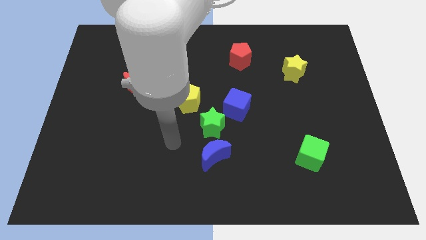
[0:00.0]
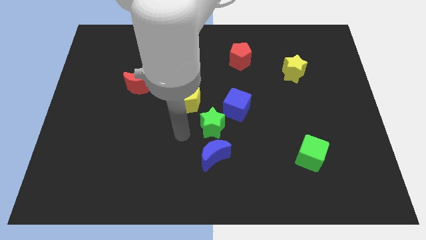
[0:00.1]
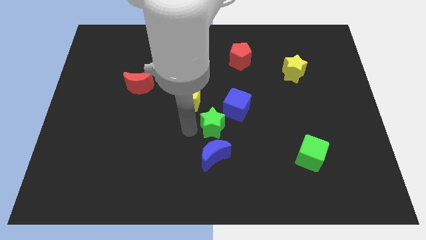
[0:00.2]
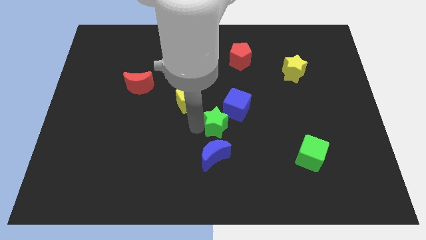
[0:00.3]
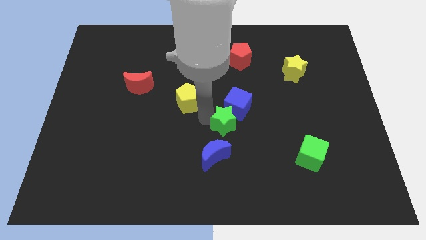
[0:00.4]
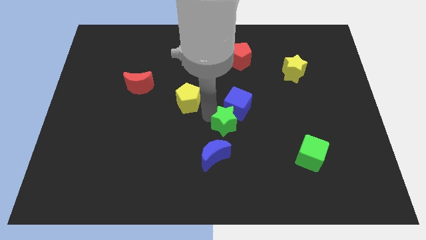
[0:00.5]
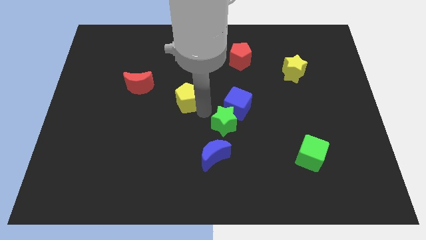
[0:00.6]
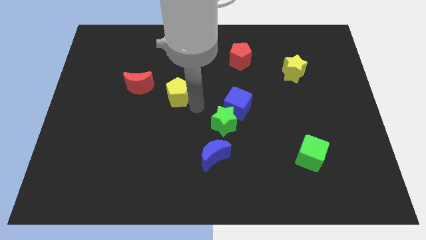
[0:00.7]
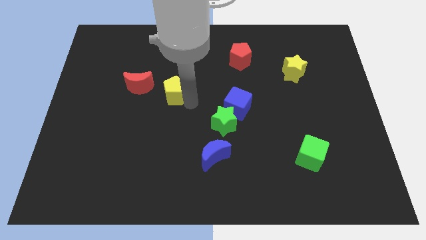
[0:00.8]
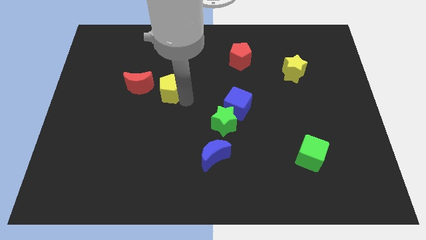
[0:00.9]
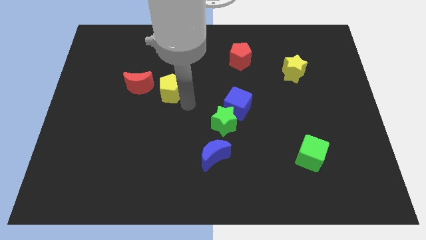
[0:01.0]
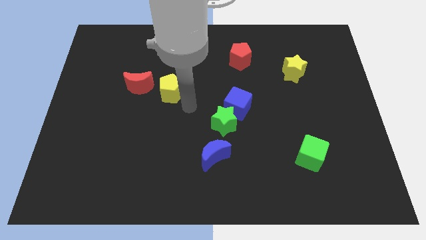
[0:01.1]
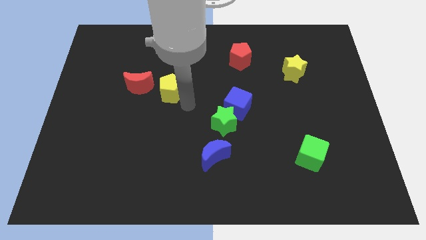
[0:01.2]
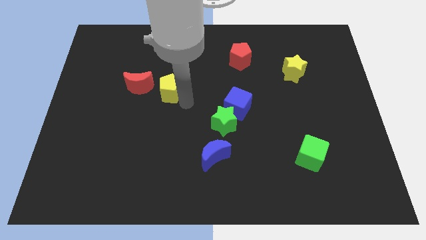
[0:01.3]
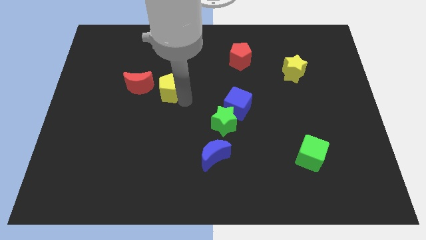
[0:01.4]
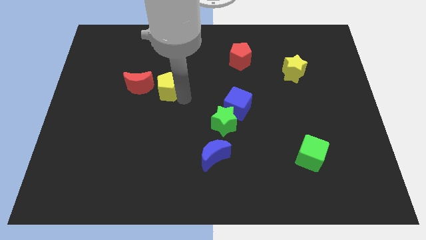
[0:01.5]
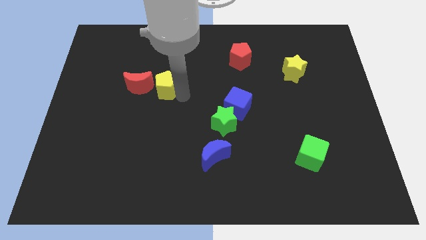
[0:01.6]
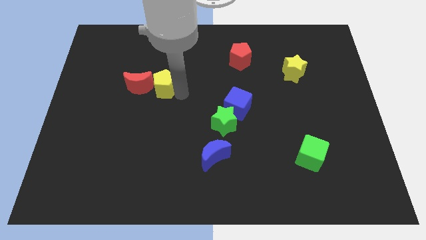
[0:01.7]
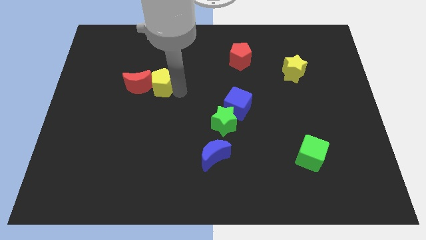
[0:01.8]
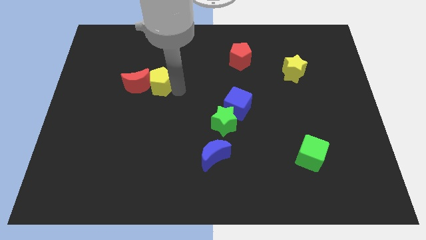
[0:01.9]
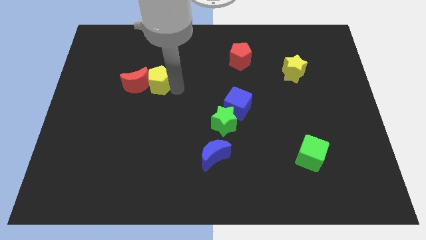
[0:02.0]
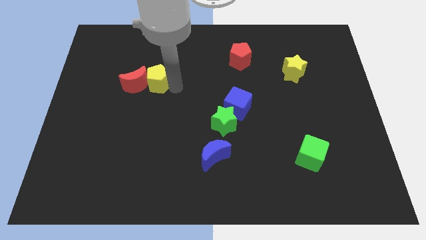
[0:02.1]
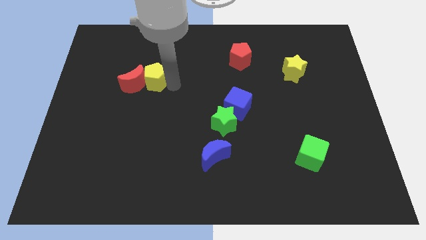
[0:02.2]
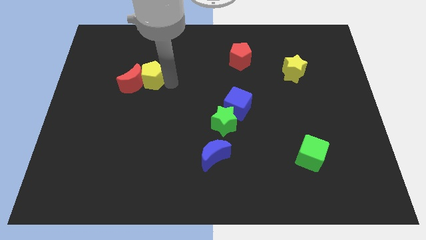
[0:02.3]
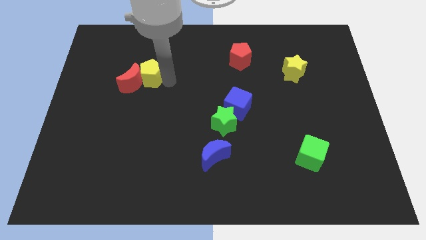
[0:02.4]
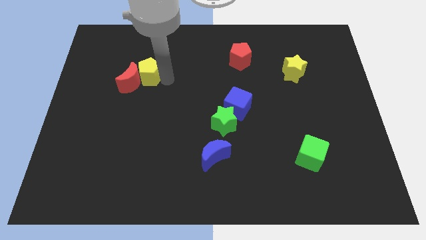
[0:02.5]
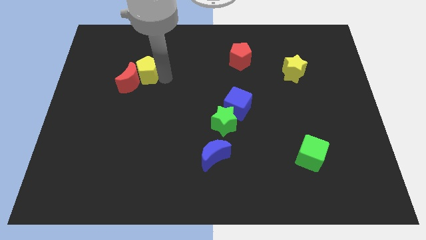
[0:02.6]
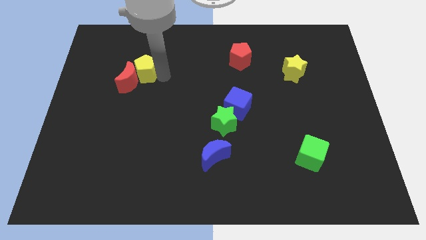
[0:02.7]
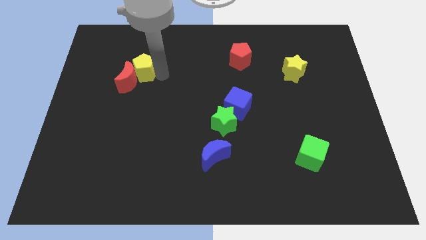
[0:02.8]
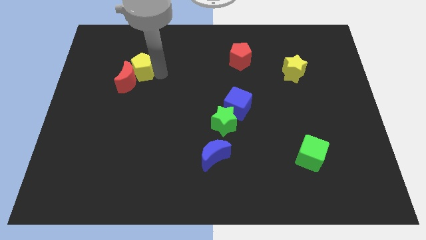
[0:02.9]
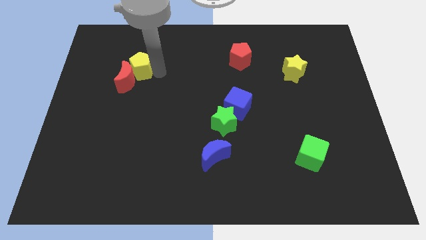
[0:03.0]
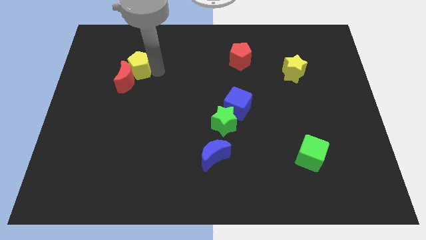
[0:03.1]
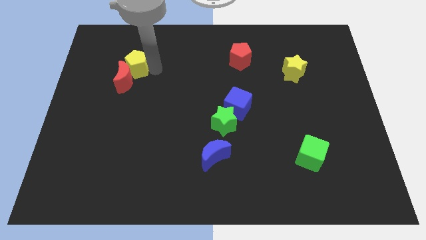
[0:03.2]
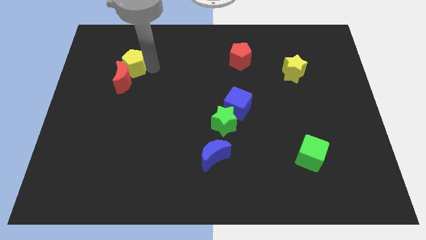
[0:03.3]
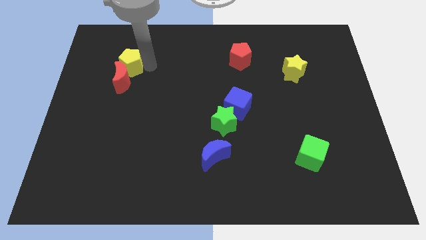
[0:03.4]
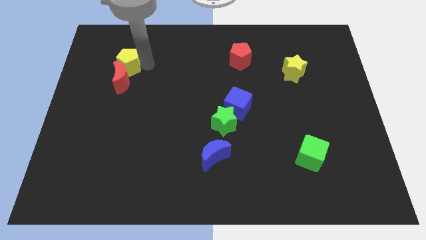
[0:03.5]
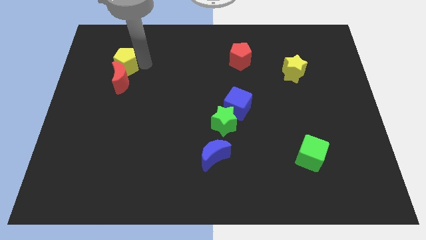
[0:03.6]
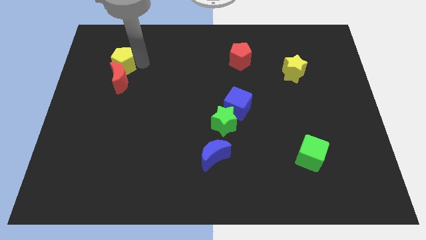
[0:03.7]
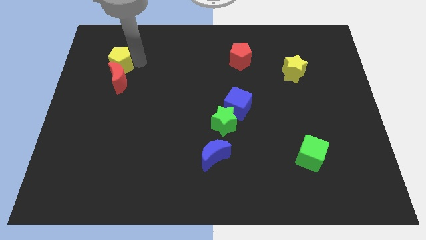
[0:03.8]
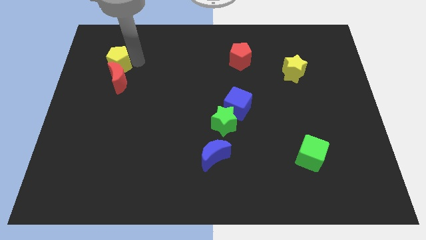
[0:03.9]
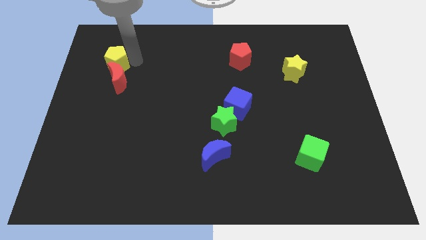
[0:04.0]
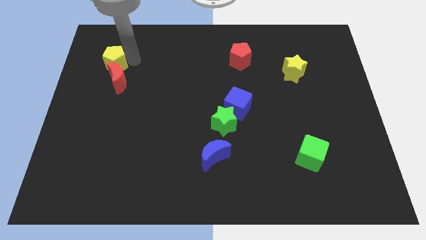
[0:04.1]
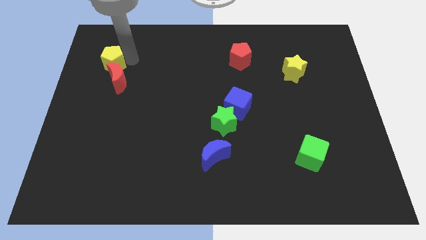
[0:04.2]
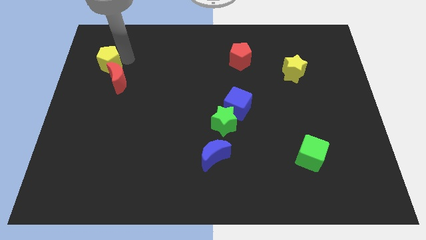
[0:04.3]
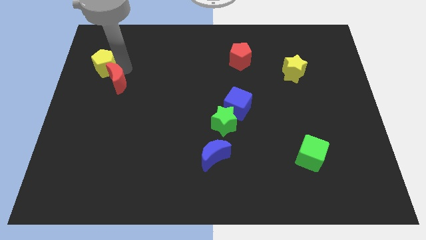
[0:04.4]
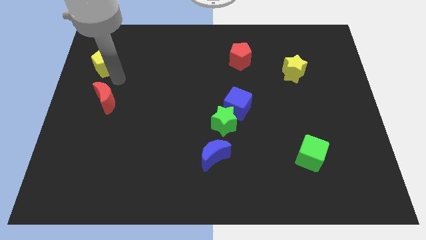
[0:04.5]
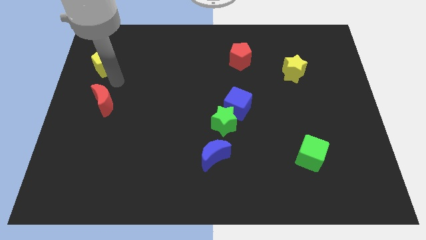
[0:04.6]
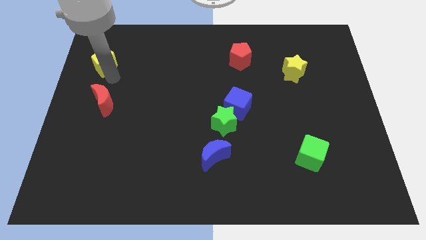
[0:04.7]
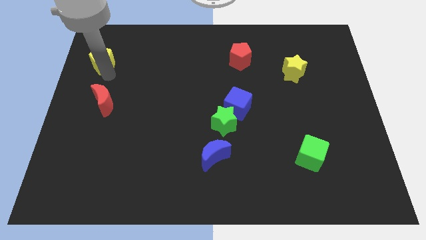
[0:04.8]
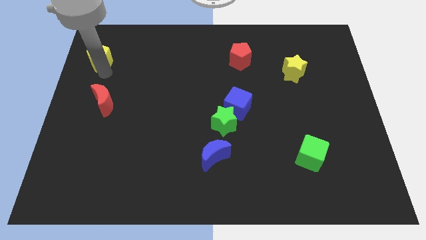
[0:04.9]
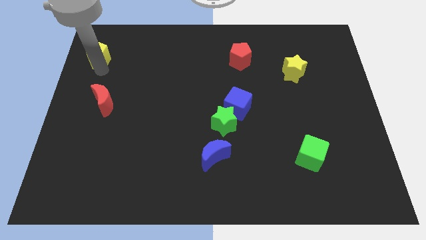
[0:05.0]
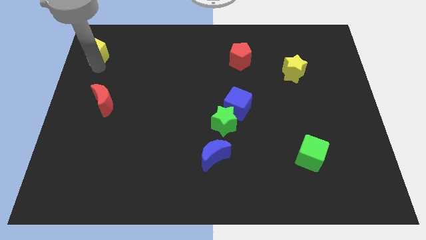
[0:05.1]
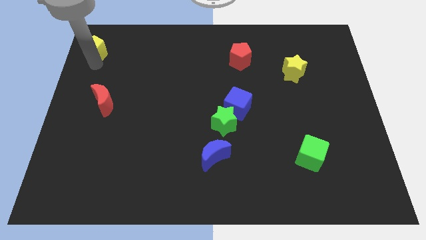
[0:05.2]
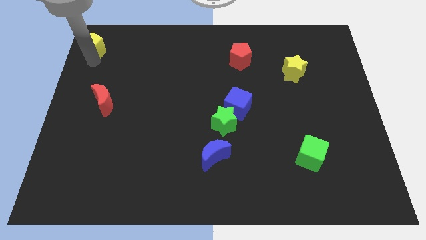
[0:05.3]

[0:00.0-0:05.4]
put the yellow pentagon to the top left corner

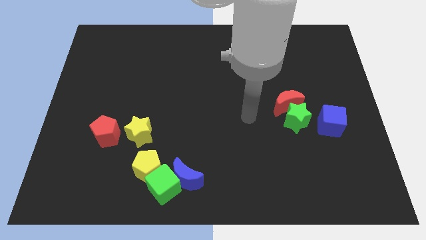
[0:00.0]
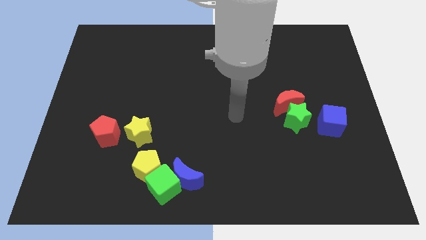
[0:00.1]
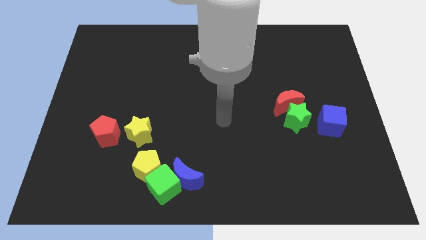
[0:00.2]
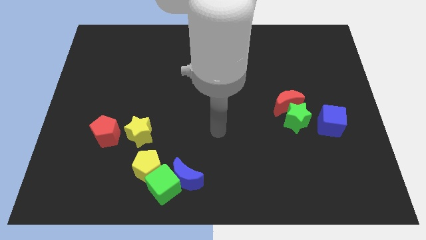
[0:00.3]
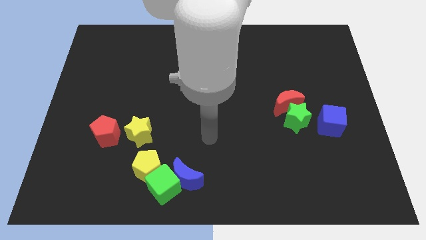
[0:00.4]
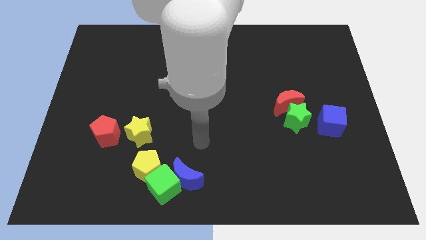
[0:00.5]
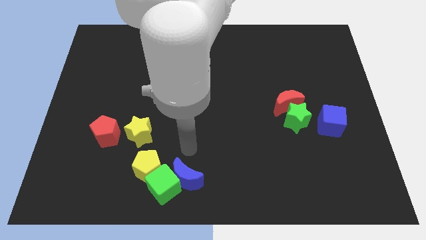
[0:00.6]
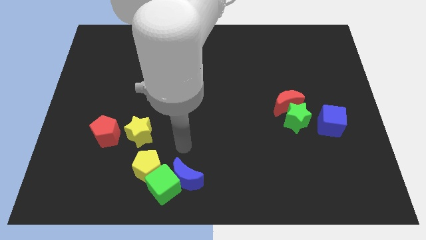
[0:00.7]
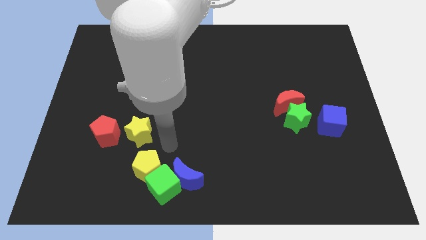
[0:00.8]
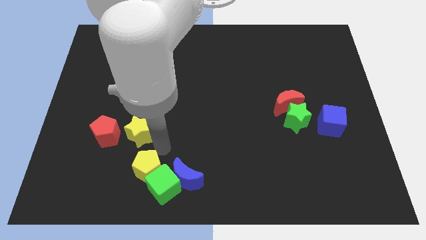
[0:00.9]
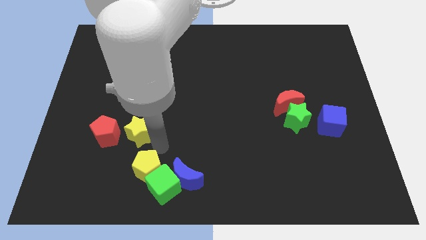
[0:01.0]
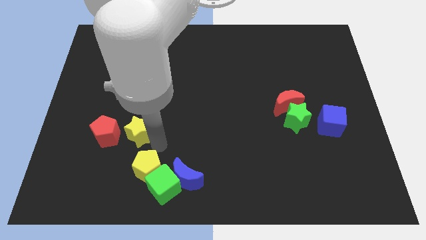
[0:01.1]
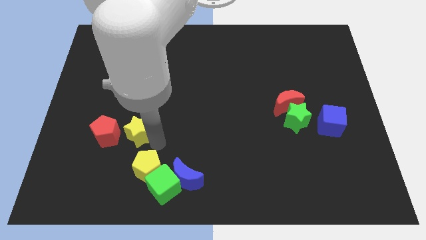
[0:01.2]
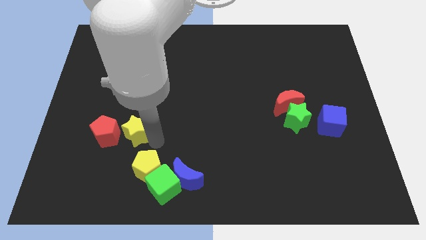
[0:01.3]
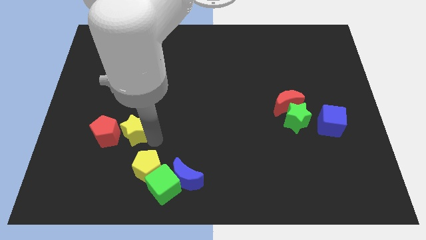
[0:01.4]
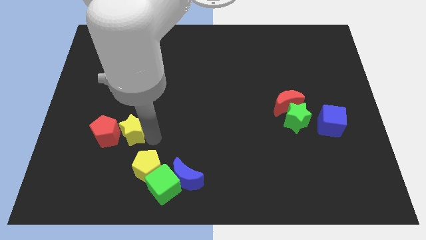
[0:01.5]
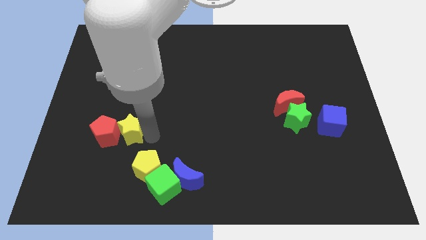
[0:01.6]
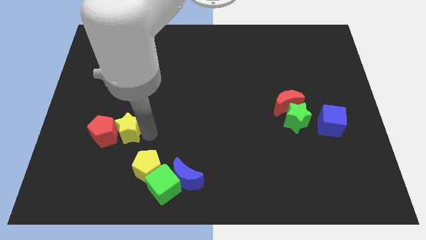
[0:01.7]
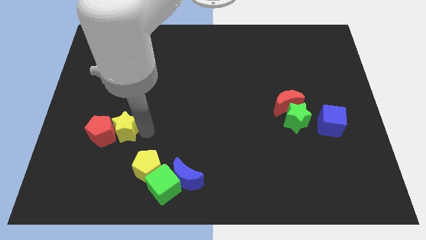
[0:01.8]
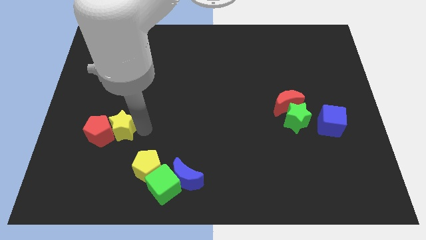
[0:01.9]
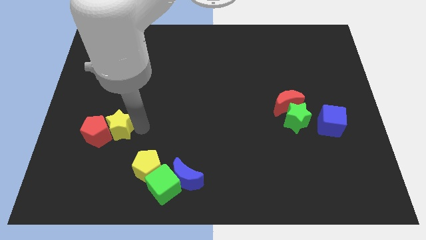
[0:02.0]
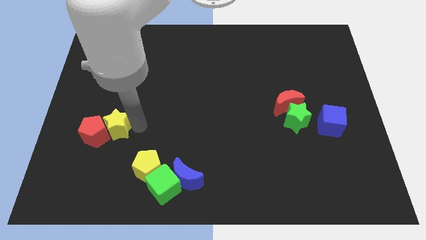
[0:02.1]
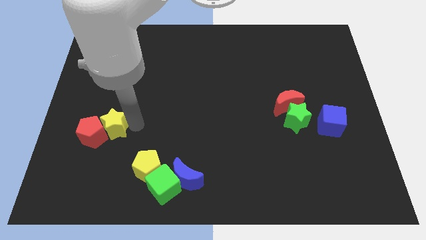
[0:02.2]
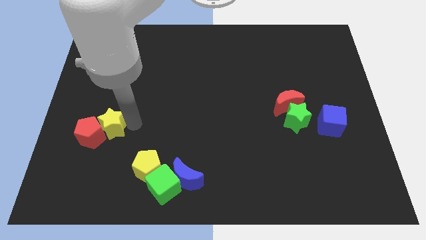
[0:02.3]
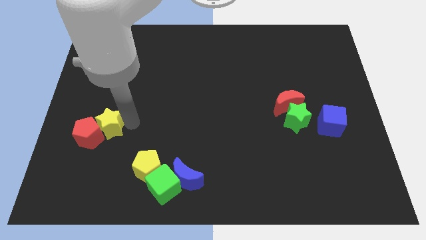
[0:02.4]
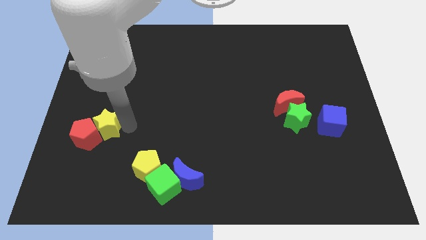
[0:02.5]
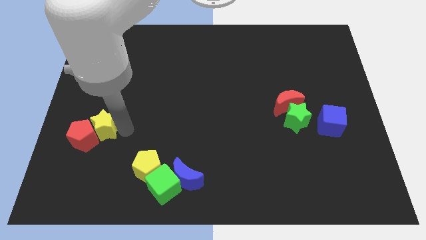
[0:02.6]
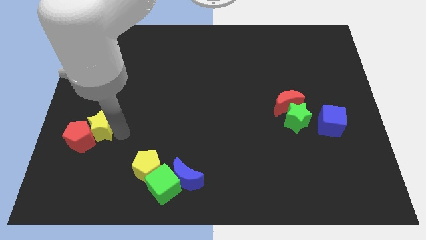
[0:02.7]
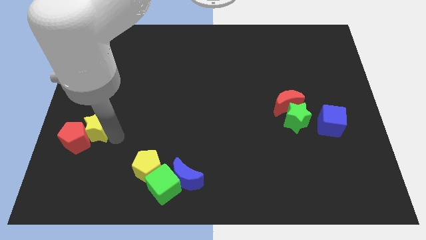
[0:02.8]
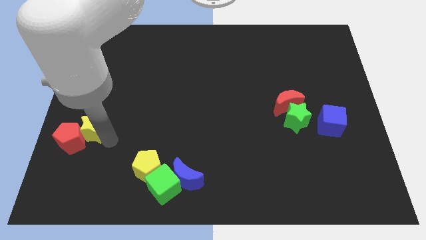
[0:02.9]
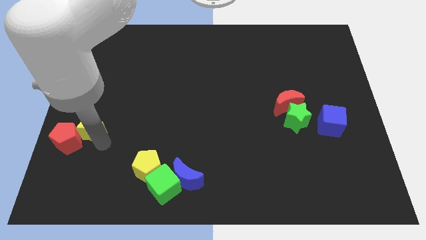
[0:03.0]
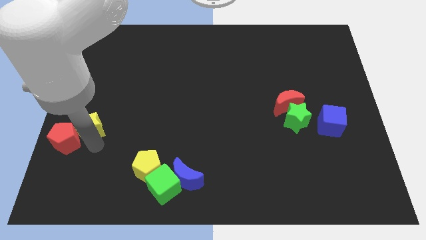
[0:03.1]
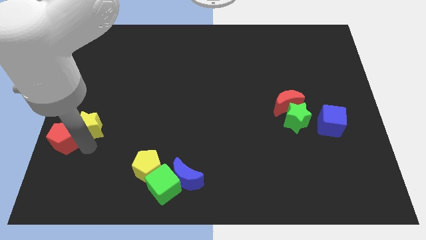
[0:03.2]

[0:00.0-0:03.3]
slide the yellow star to the center left
